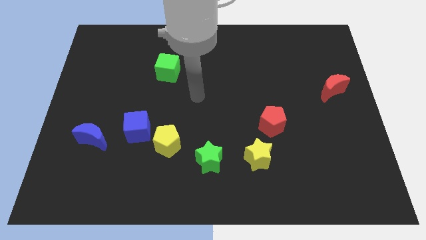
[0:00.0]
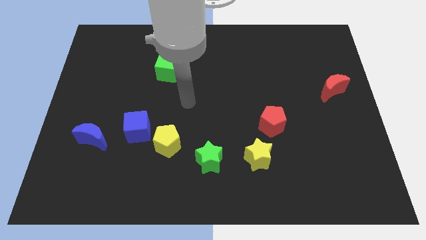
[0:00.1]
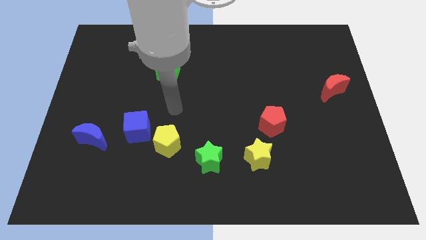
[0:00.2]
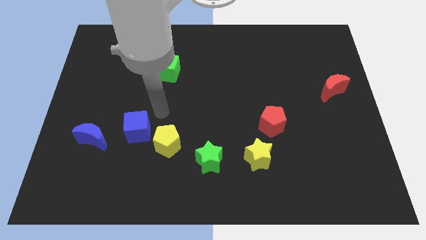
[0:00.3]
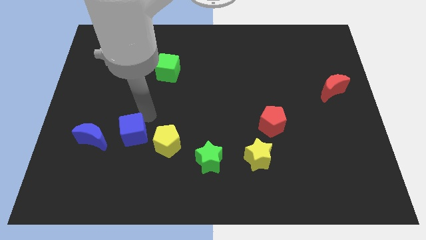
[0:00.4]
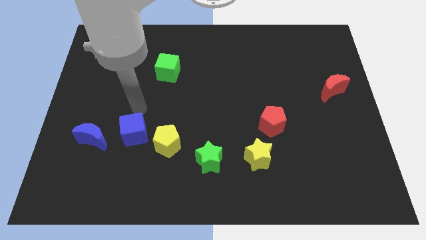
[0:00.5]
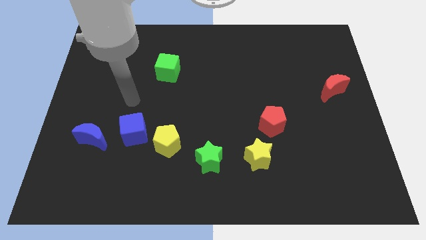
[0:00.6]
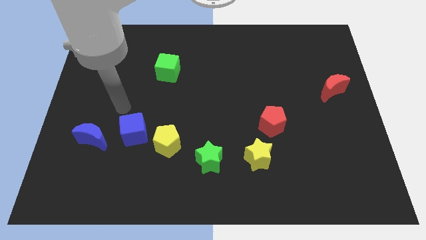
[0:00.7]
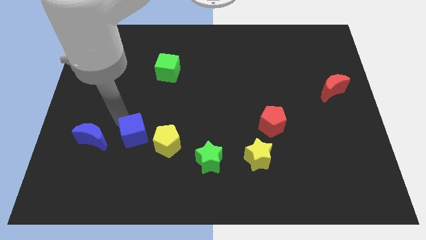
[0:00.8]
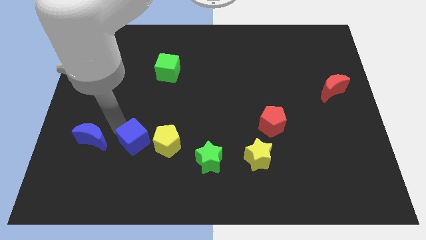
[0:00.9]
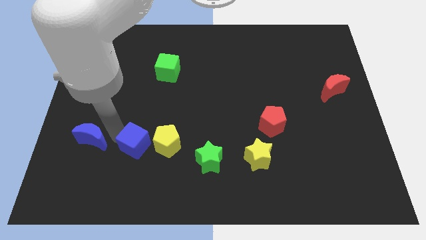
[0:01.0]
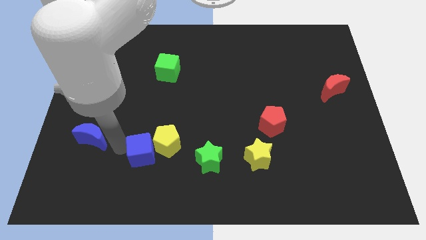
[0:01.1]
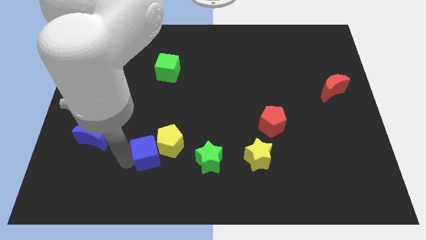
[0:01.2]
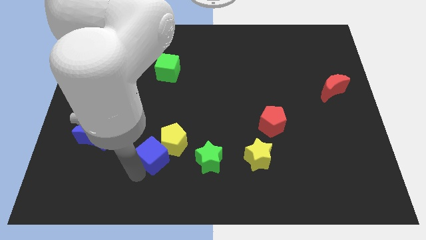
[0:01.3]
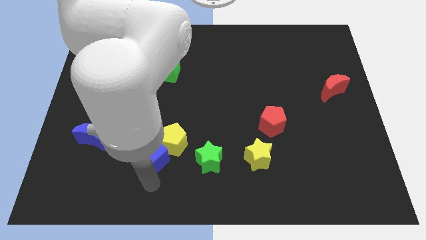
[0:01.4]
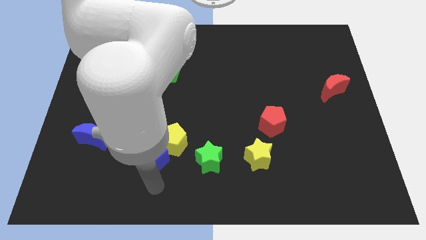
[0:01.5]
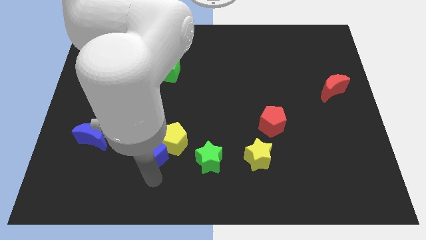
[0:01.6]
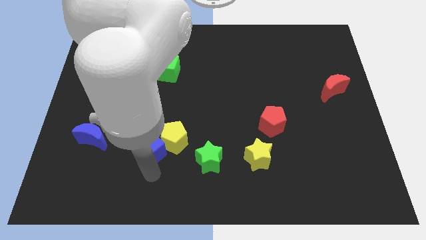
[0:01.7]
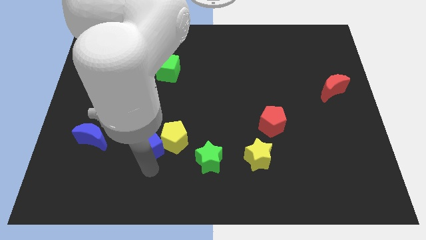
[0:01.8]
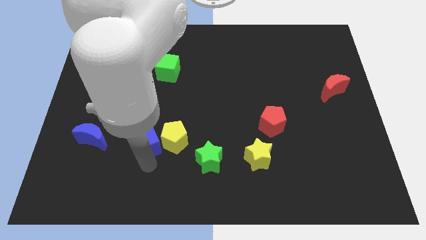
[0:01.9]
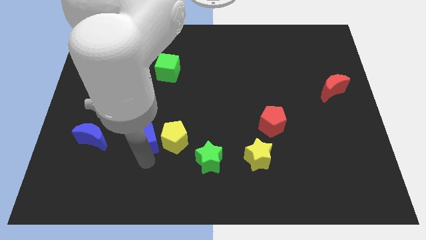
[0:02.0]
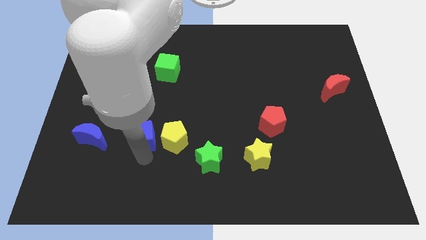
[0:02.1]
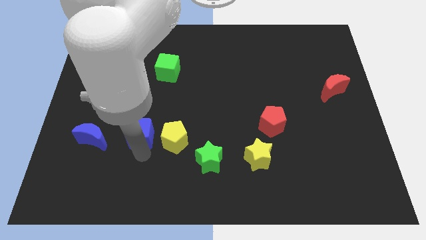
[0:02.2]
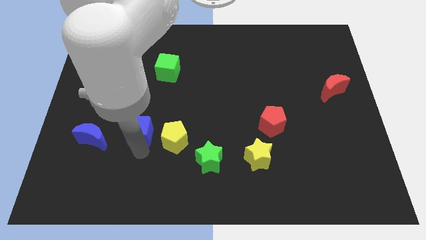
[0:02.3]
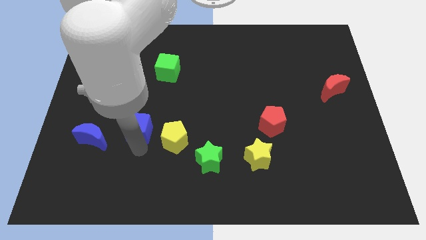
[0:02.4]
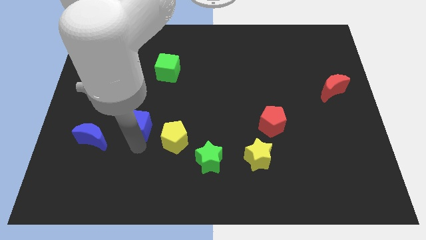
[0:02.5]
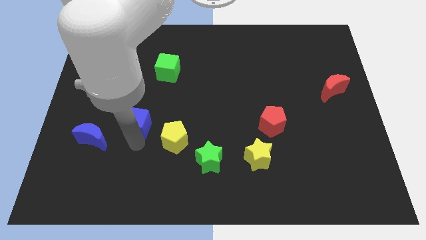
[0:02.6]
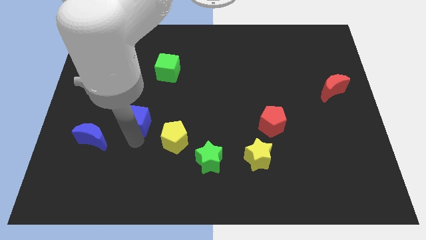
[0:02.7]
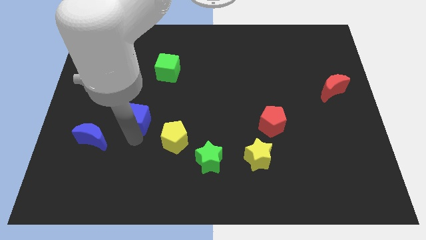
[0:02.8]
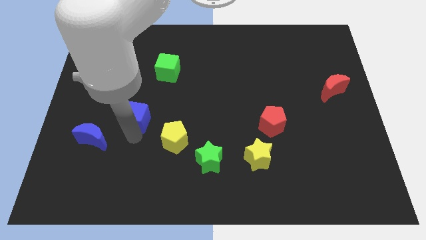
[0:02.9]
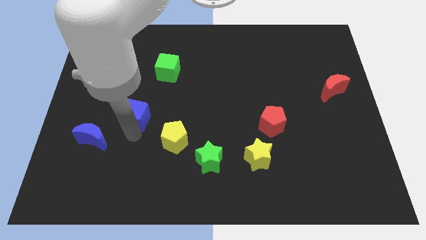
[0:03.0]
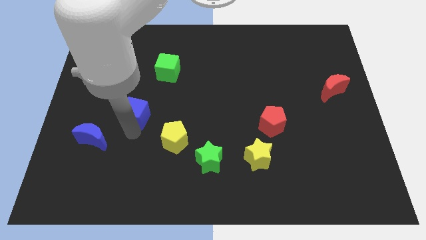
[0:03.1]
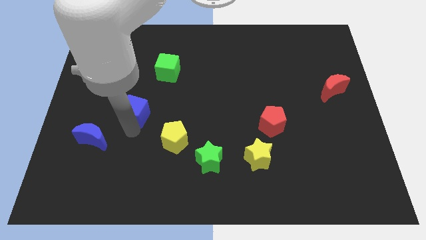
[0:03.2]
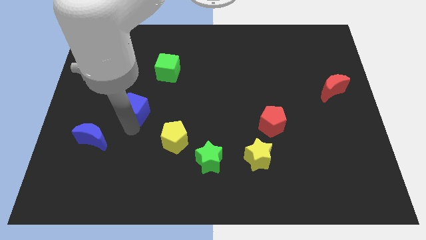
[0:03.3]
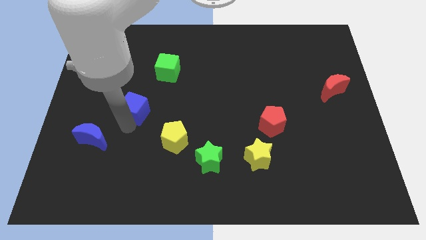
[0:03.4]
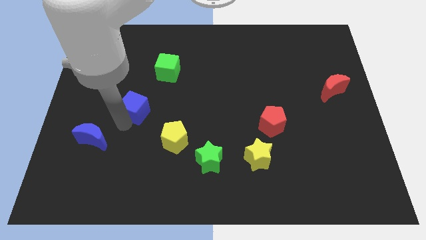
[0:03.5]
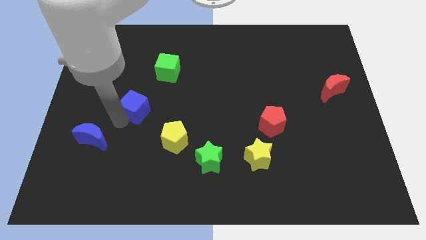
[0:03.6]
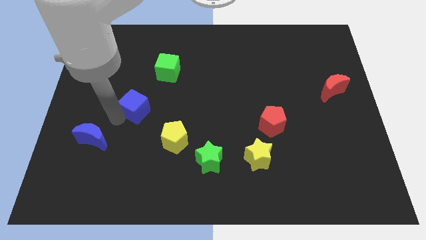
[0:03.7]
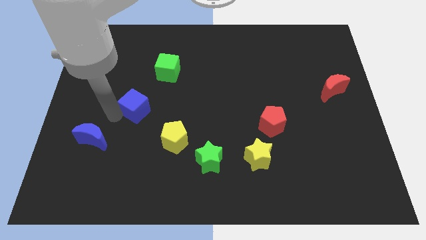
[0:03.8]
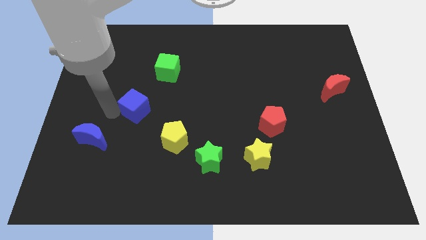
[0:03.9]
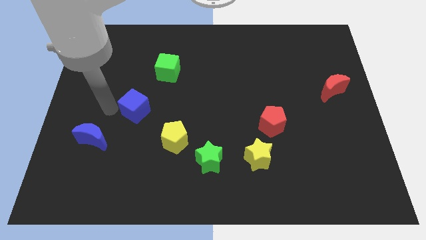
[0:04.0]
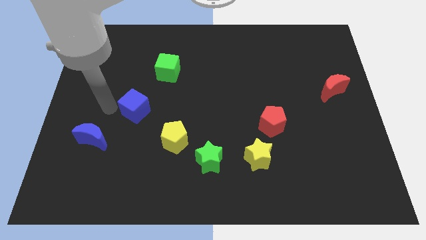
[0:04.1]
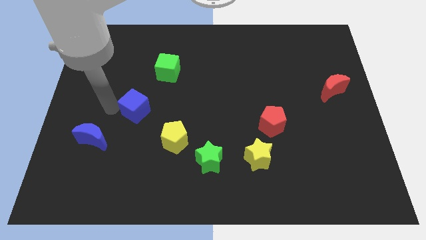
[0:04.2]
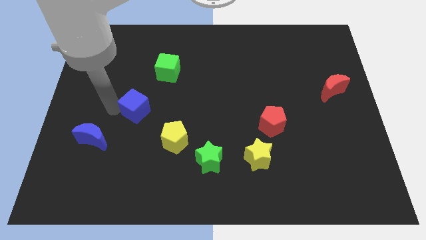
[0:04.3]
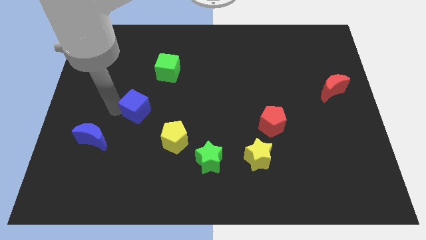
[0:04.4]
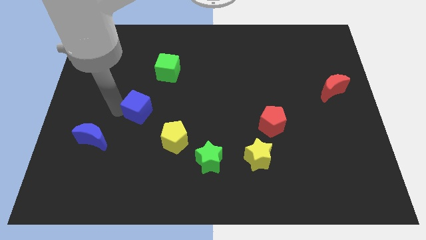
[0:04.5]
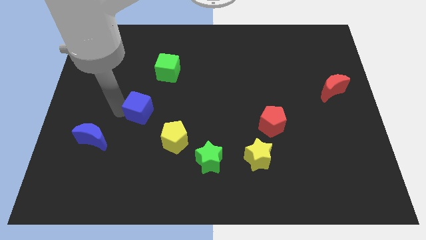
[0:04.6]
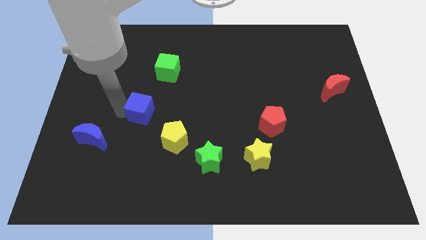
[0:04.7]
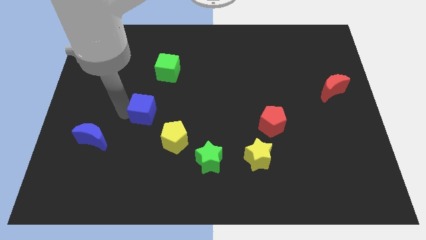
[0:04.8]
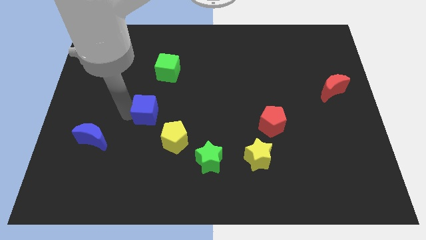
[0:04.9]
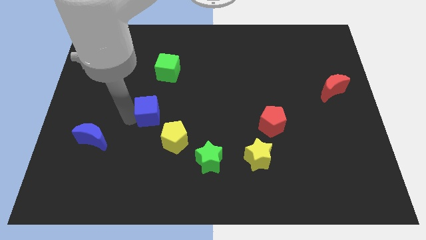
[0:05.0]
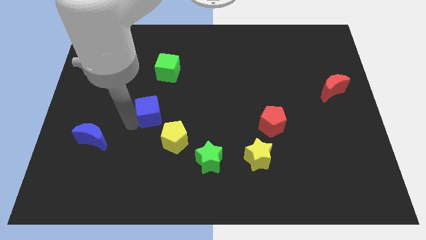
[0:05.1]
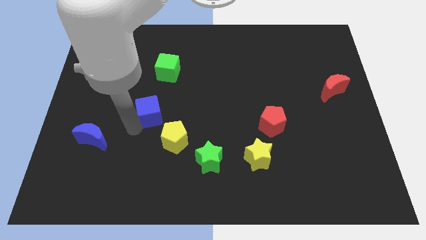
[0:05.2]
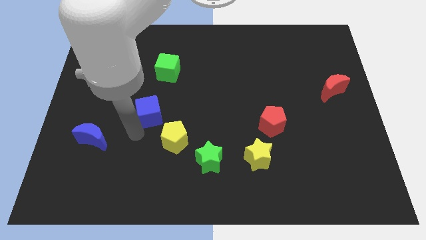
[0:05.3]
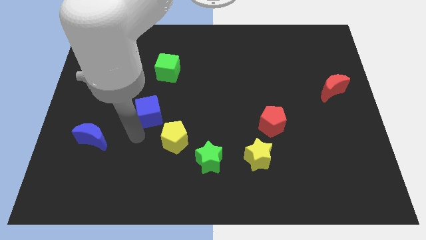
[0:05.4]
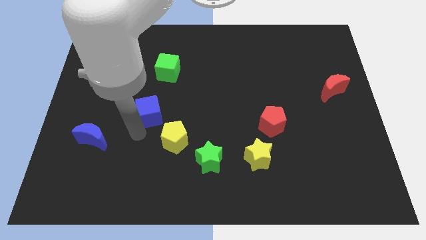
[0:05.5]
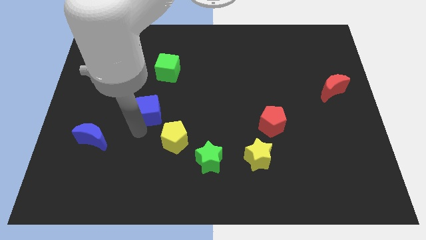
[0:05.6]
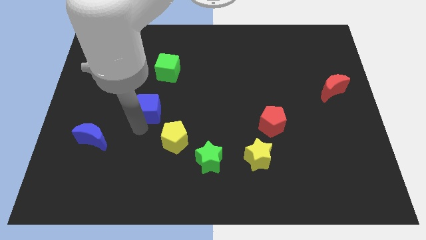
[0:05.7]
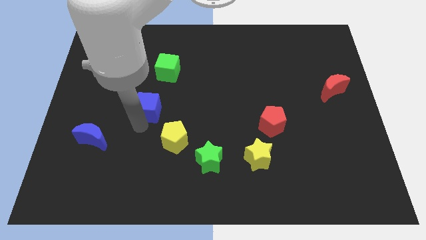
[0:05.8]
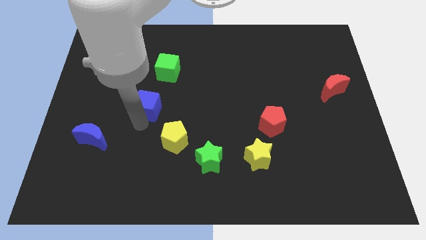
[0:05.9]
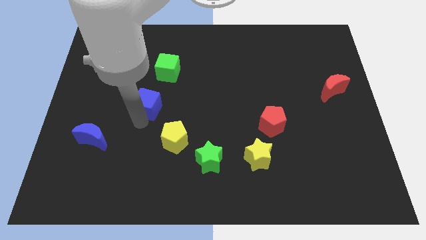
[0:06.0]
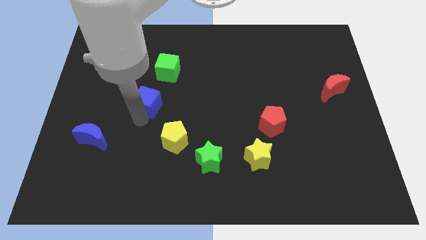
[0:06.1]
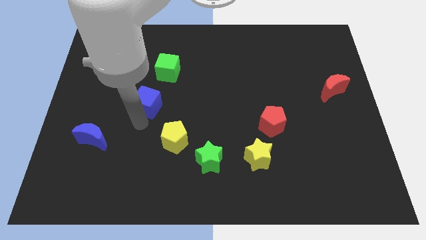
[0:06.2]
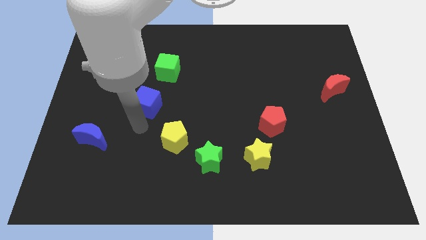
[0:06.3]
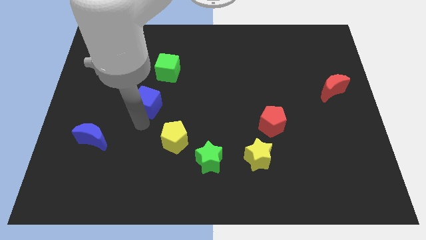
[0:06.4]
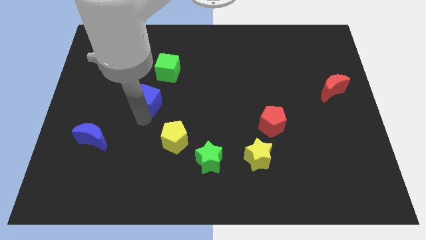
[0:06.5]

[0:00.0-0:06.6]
separate the blue cube from the yellow pentagon and blue moon

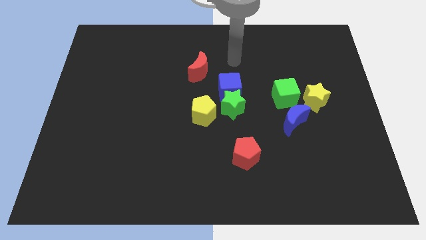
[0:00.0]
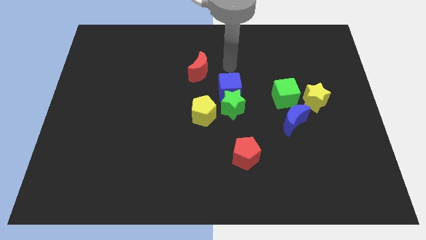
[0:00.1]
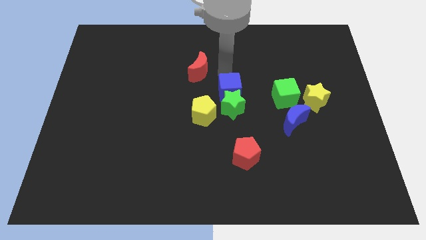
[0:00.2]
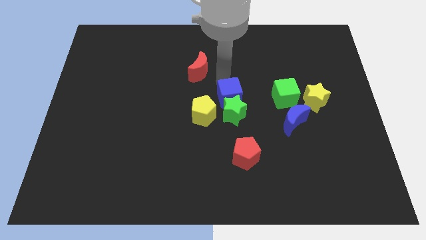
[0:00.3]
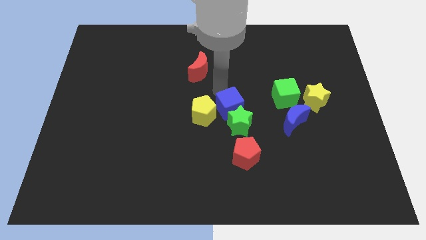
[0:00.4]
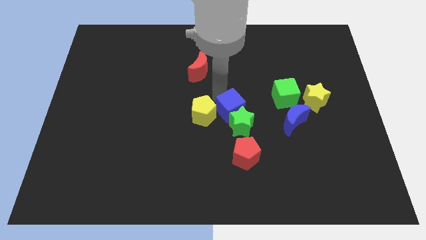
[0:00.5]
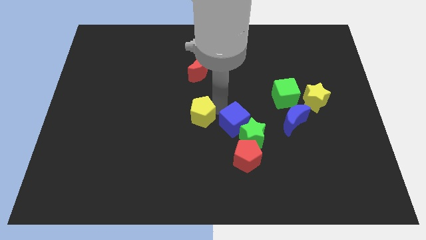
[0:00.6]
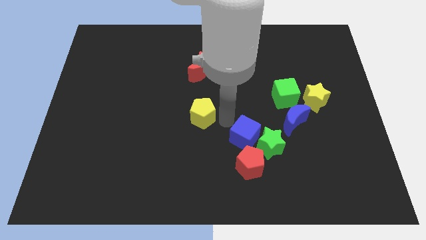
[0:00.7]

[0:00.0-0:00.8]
separate the green star from the blue cube and yellow pentagon

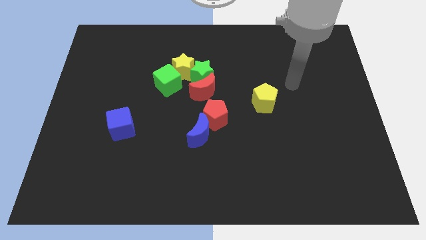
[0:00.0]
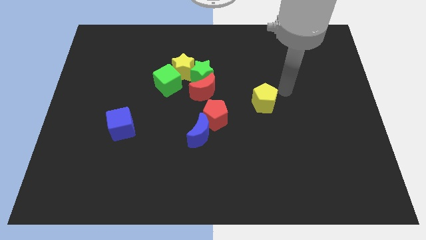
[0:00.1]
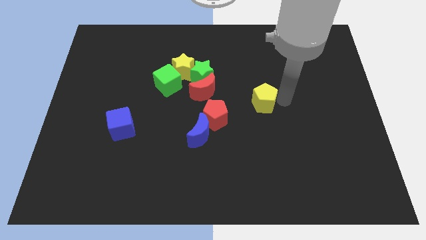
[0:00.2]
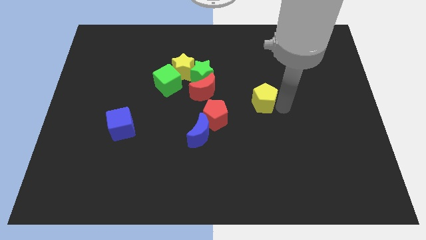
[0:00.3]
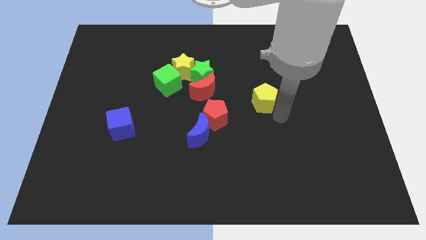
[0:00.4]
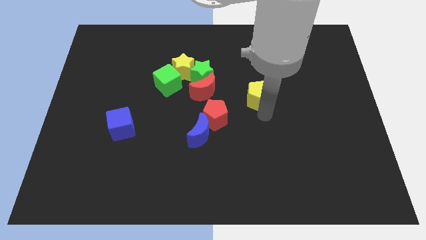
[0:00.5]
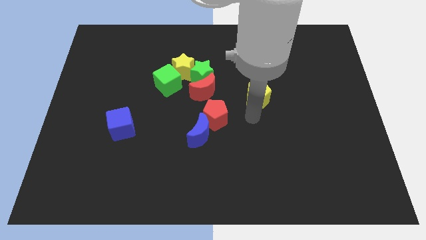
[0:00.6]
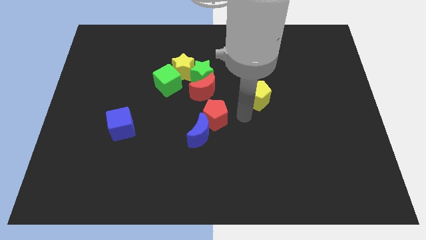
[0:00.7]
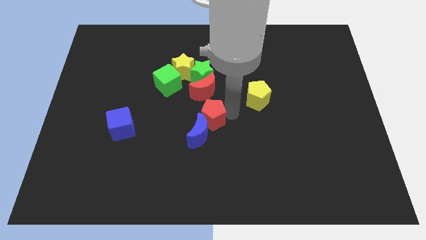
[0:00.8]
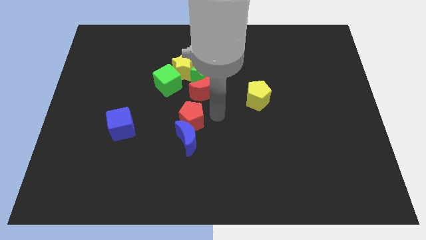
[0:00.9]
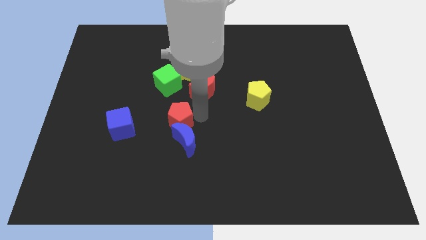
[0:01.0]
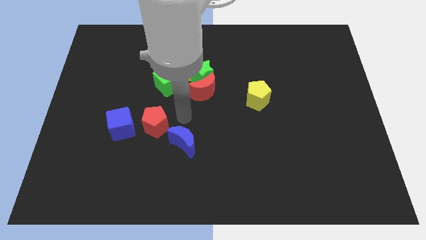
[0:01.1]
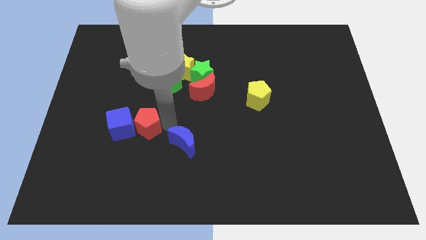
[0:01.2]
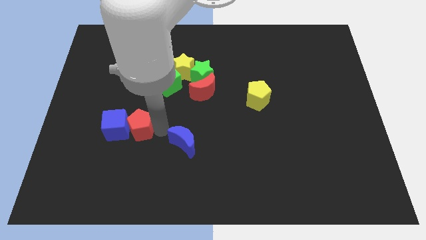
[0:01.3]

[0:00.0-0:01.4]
separate the blue moon from the red pentagon

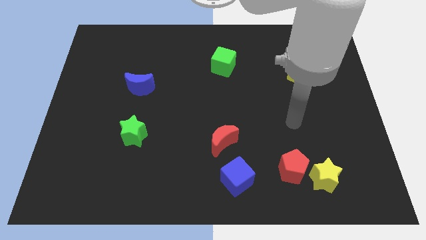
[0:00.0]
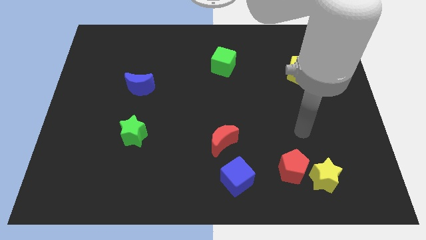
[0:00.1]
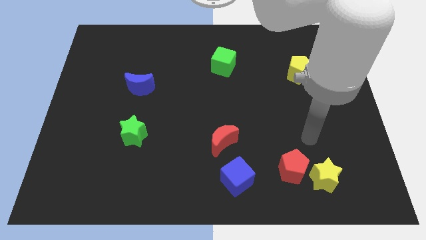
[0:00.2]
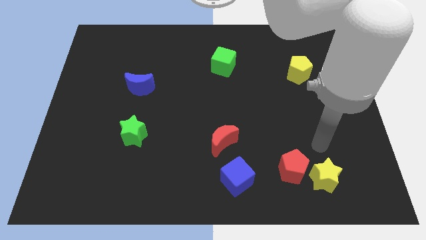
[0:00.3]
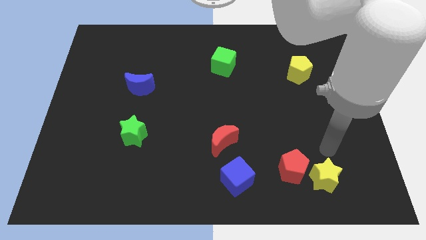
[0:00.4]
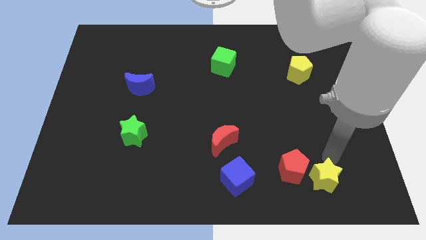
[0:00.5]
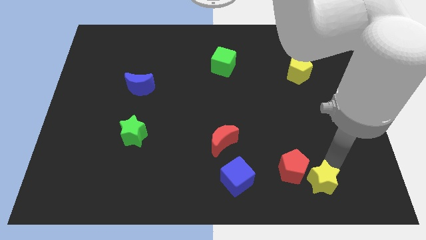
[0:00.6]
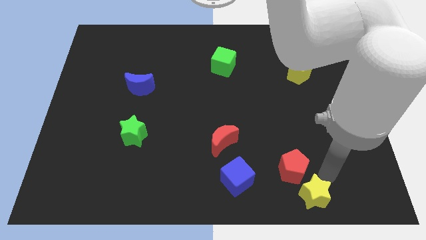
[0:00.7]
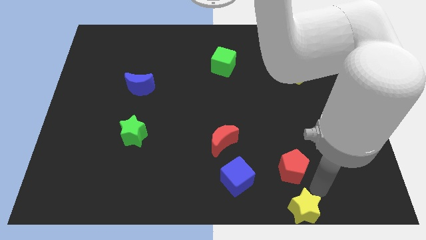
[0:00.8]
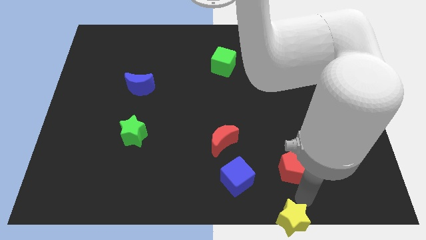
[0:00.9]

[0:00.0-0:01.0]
separate the red pentagon from the yellow star
